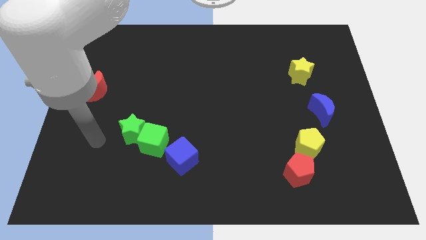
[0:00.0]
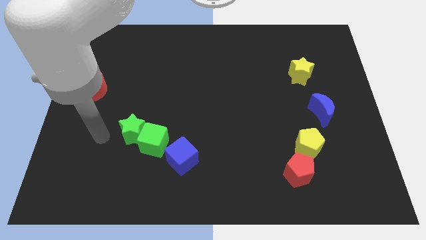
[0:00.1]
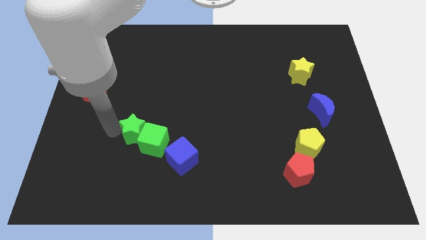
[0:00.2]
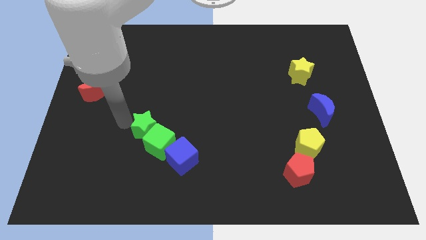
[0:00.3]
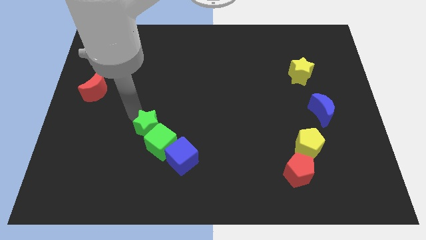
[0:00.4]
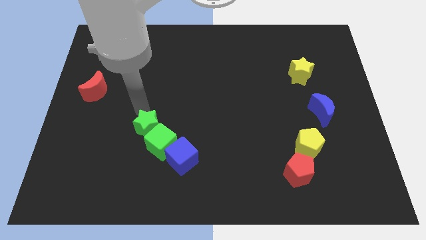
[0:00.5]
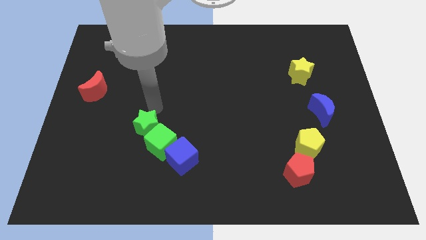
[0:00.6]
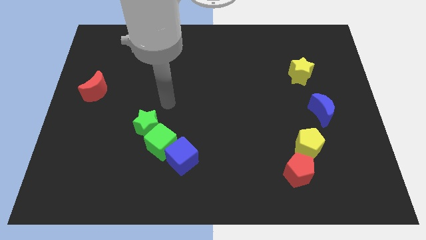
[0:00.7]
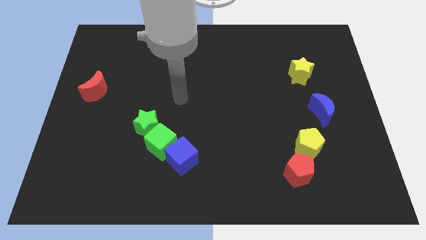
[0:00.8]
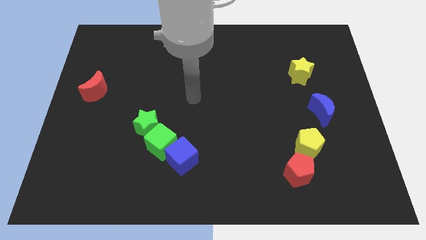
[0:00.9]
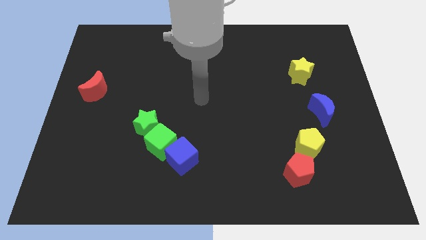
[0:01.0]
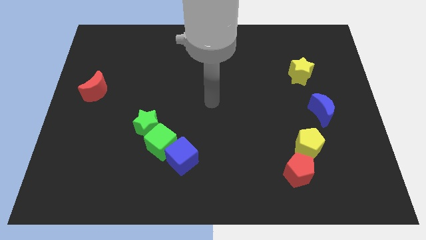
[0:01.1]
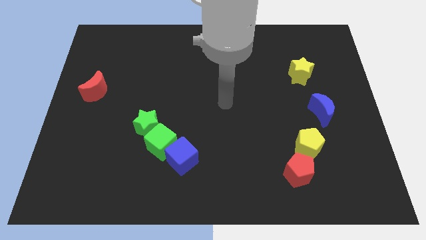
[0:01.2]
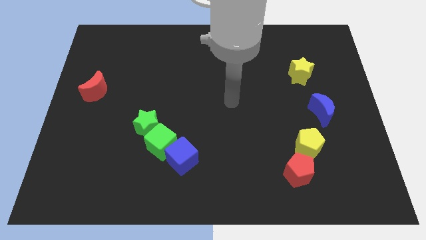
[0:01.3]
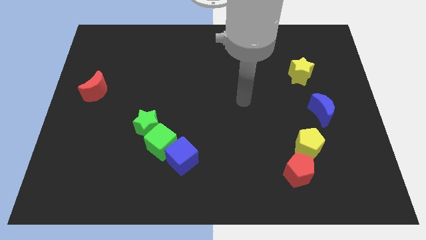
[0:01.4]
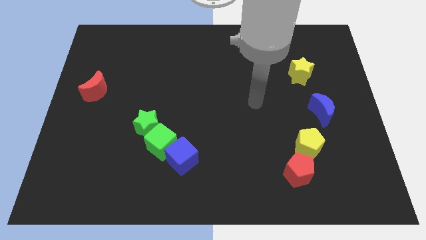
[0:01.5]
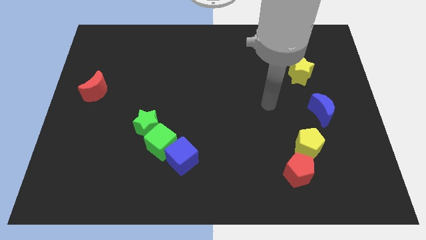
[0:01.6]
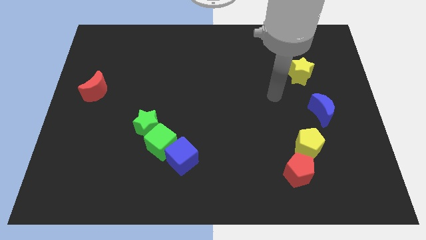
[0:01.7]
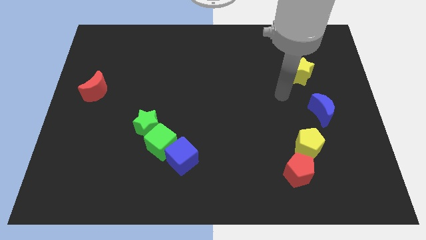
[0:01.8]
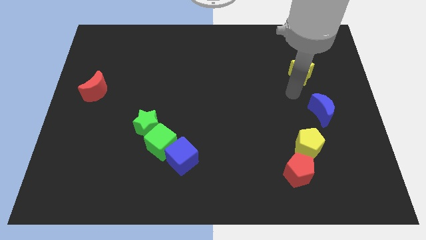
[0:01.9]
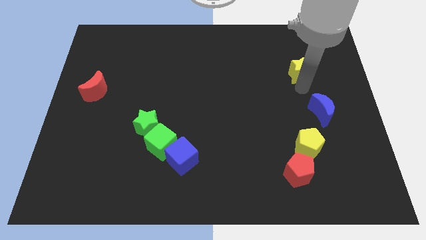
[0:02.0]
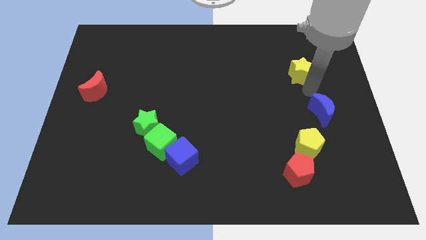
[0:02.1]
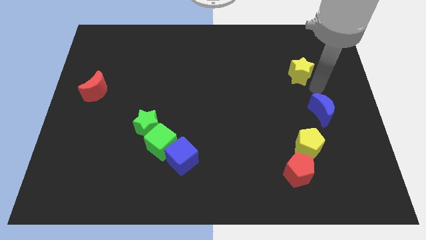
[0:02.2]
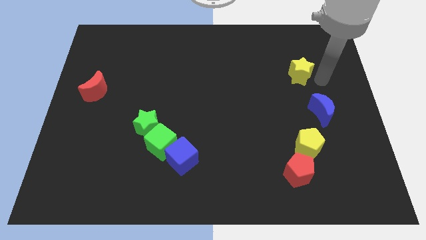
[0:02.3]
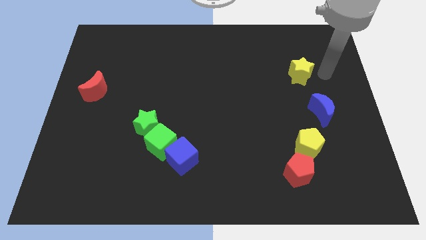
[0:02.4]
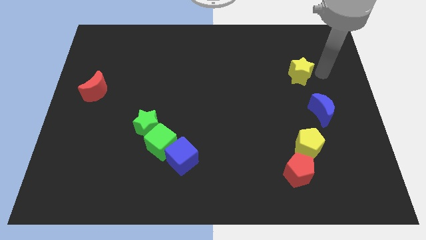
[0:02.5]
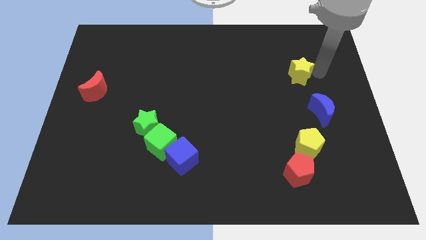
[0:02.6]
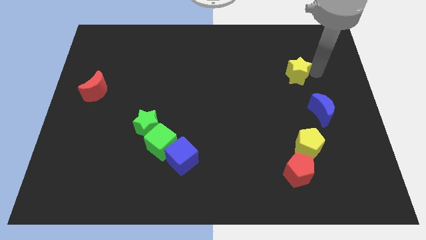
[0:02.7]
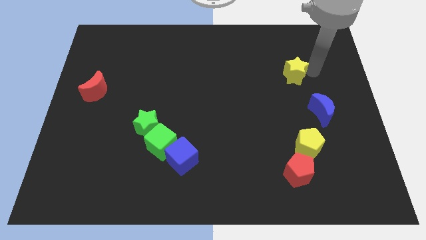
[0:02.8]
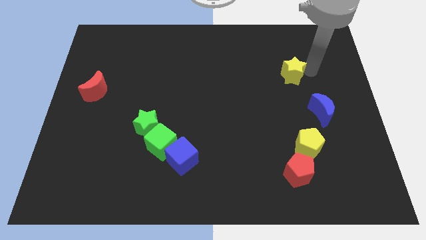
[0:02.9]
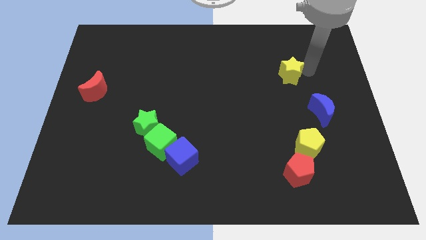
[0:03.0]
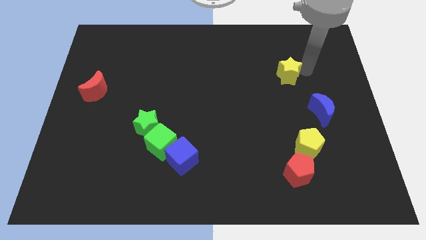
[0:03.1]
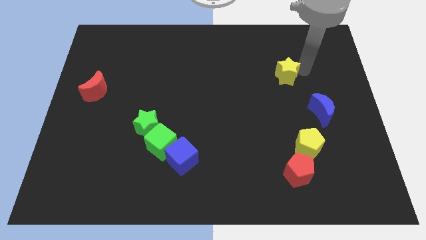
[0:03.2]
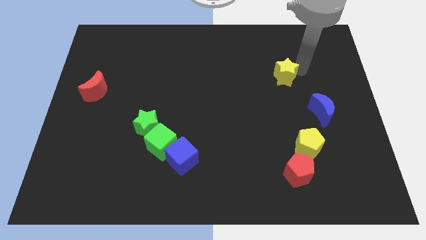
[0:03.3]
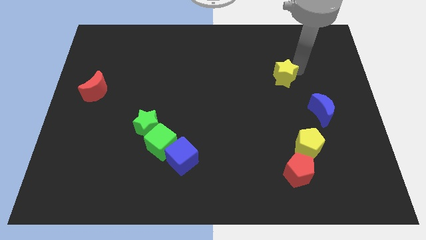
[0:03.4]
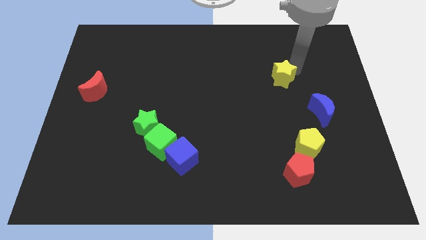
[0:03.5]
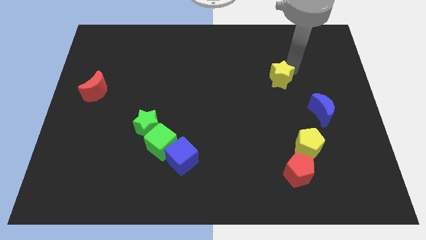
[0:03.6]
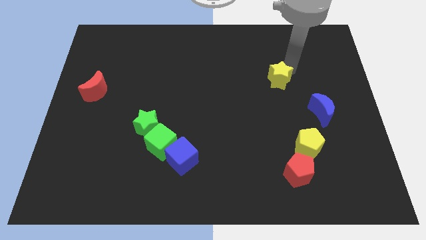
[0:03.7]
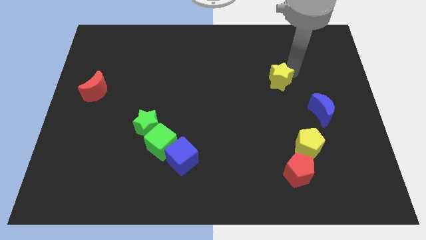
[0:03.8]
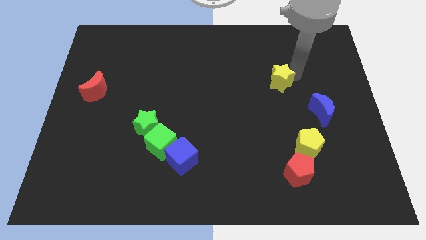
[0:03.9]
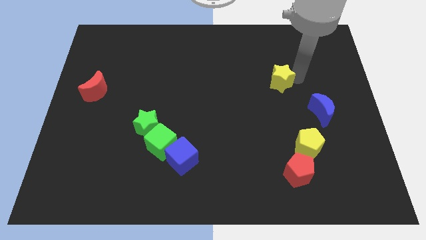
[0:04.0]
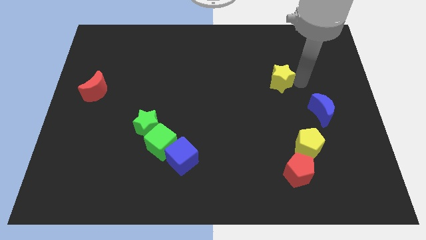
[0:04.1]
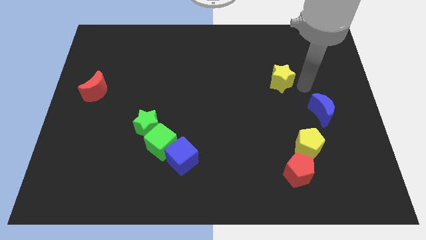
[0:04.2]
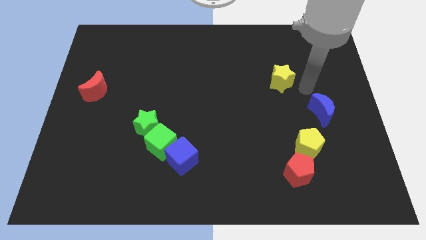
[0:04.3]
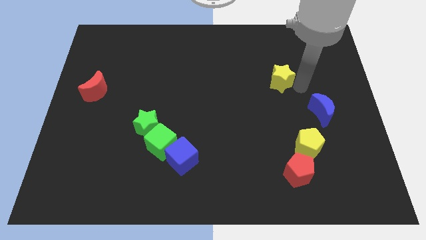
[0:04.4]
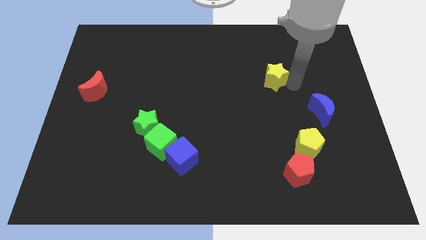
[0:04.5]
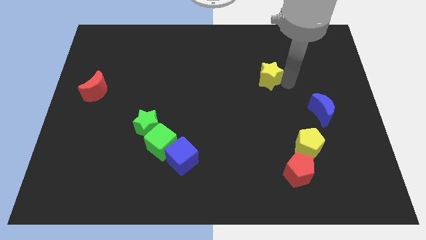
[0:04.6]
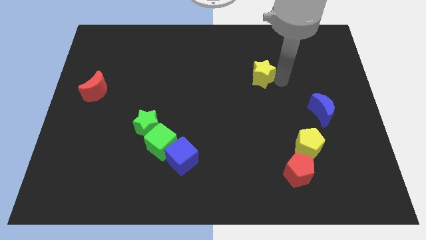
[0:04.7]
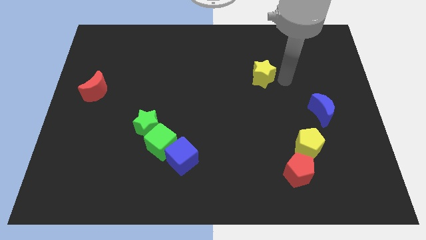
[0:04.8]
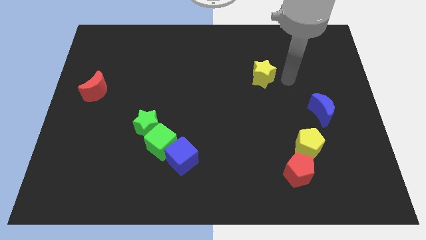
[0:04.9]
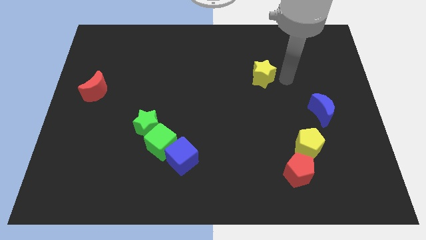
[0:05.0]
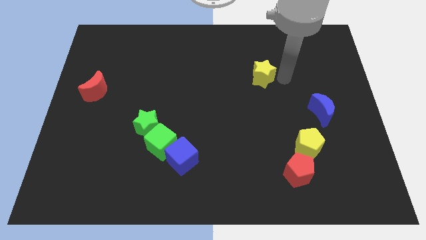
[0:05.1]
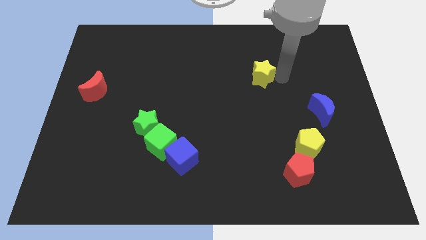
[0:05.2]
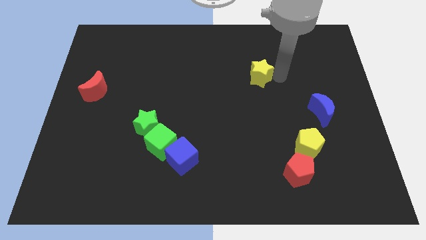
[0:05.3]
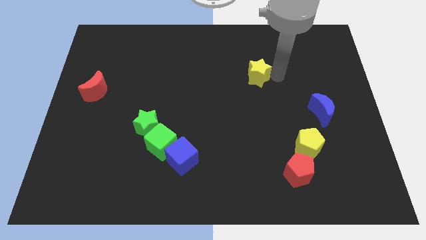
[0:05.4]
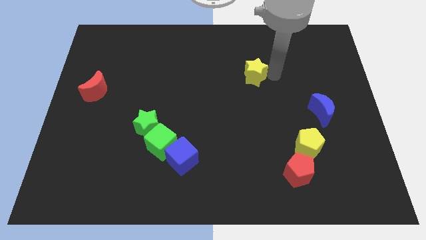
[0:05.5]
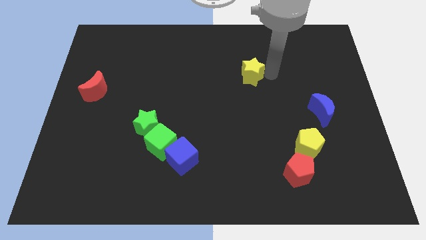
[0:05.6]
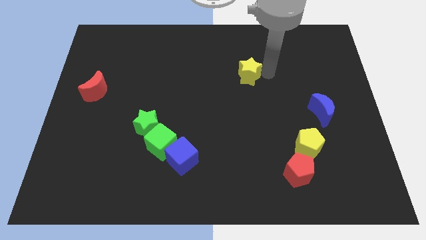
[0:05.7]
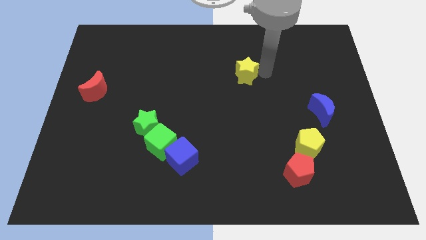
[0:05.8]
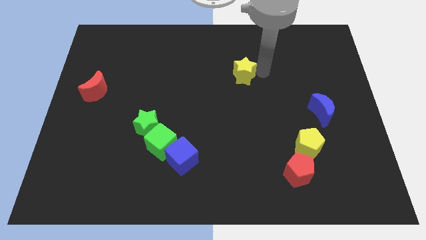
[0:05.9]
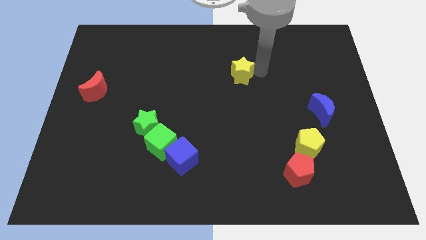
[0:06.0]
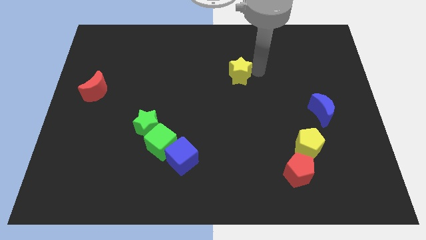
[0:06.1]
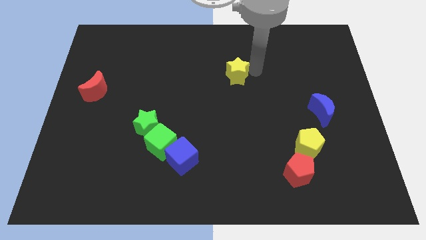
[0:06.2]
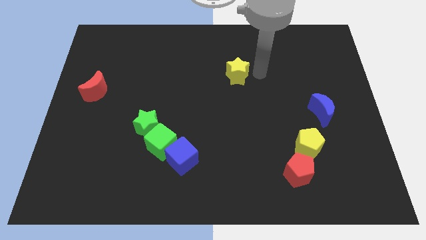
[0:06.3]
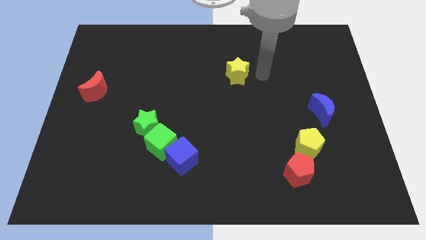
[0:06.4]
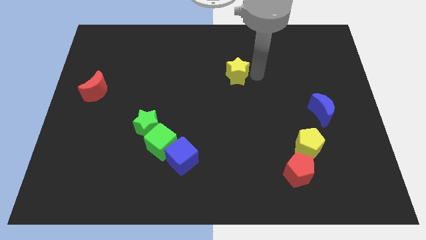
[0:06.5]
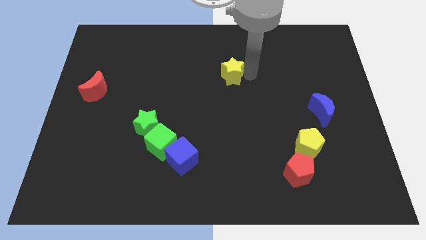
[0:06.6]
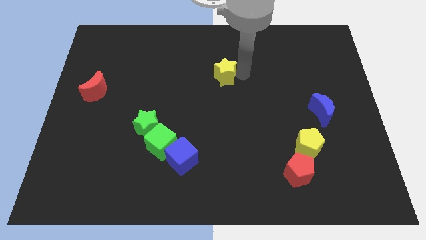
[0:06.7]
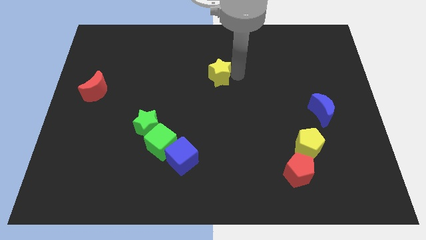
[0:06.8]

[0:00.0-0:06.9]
slide the yellow star left

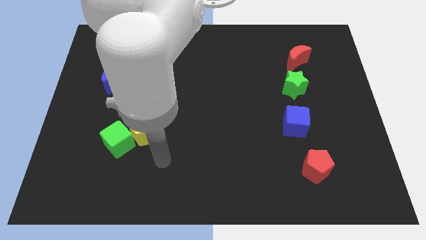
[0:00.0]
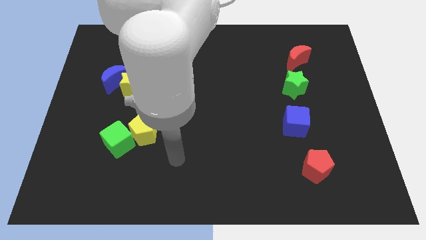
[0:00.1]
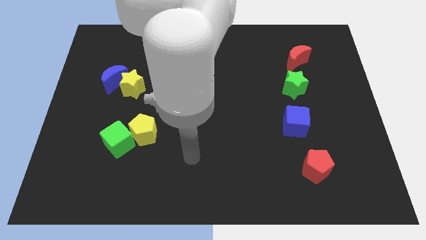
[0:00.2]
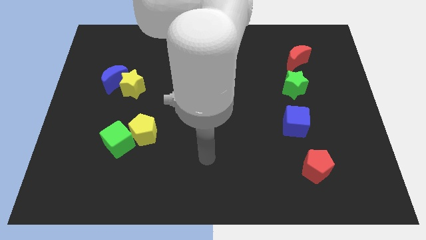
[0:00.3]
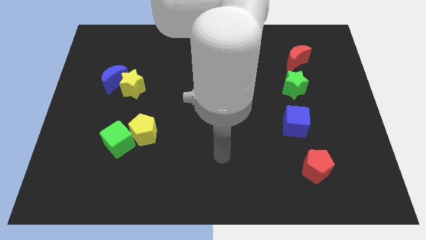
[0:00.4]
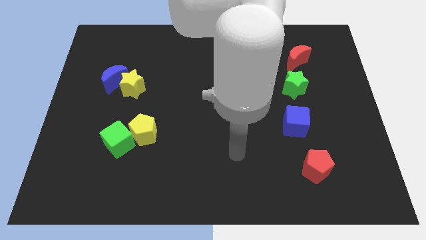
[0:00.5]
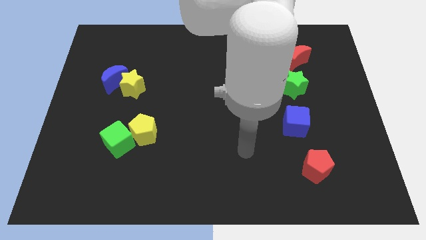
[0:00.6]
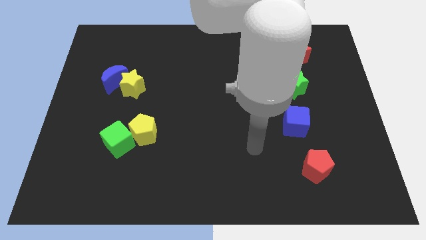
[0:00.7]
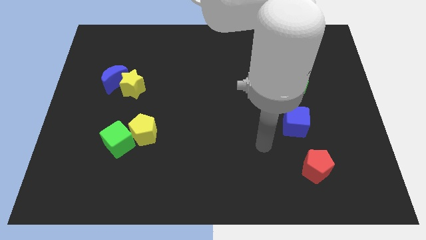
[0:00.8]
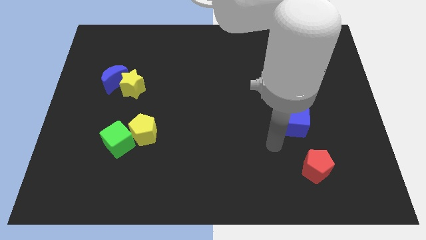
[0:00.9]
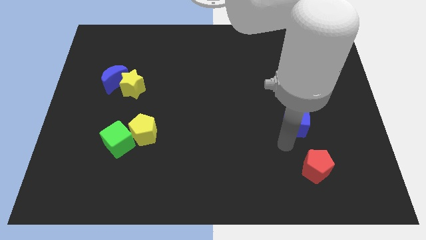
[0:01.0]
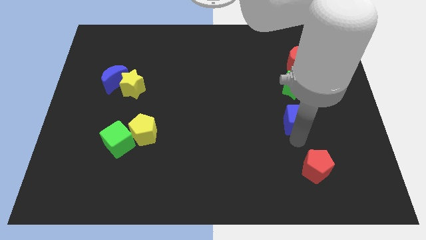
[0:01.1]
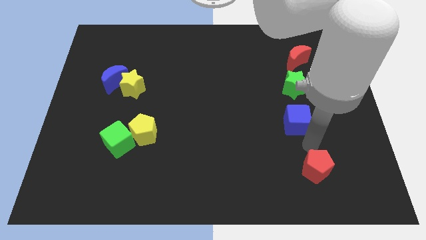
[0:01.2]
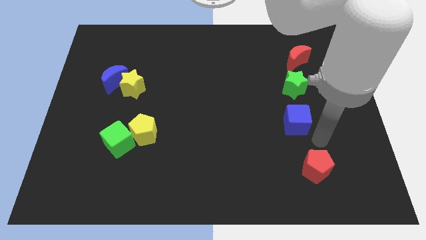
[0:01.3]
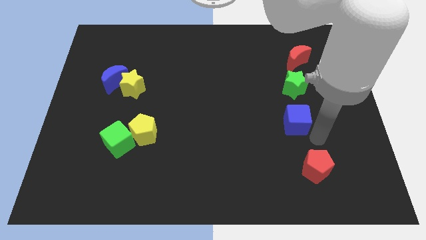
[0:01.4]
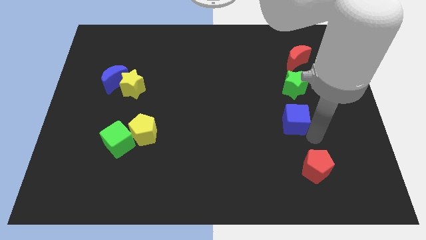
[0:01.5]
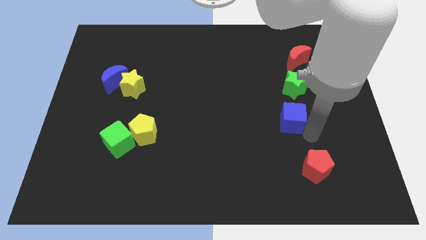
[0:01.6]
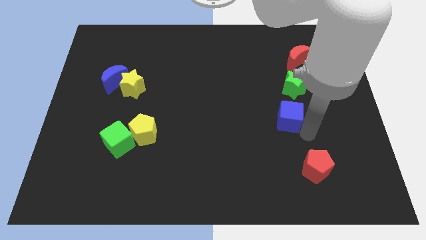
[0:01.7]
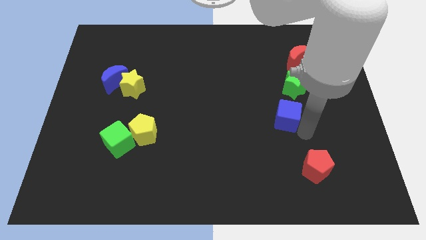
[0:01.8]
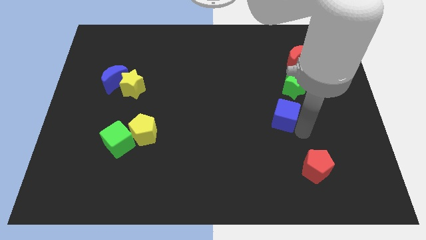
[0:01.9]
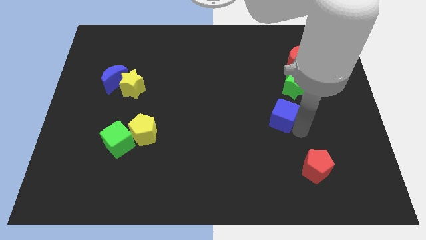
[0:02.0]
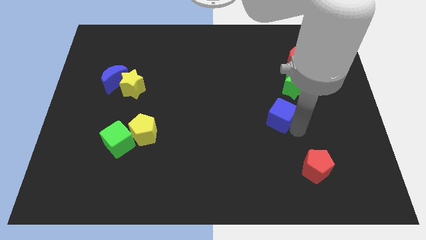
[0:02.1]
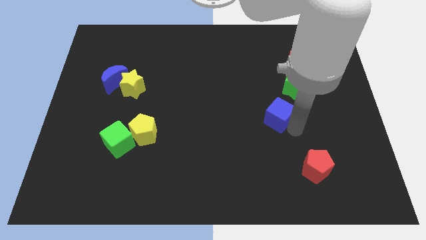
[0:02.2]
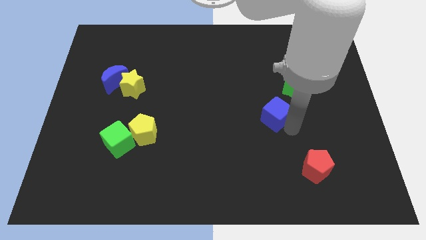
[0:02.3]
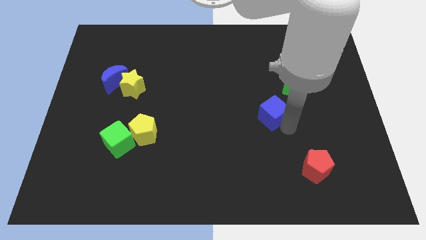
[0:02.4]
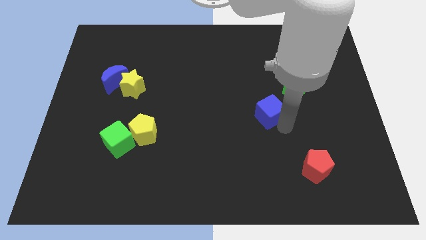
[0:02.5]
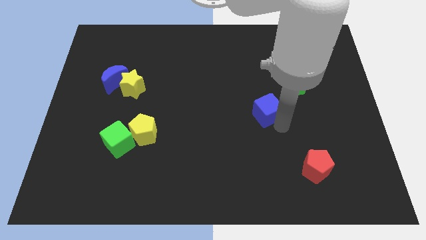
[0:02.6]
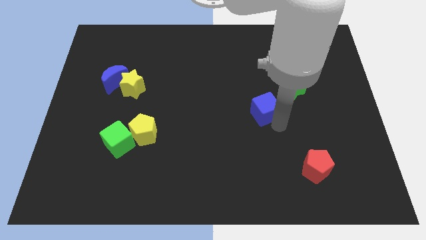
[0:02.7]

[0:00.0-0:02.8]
move the blue cube slightly upwards and left diagonally
